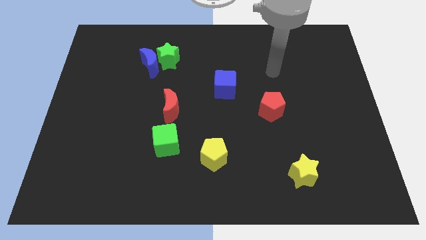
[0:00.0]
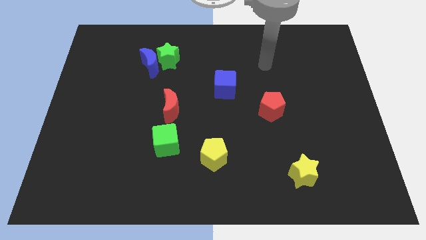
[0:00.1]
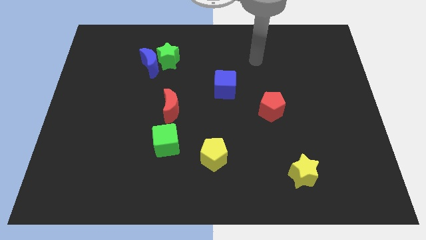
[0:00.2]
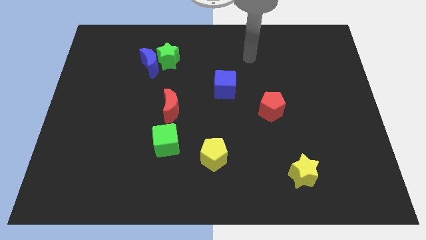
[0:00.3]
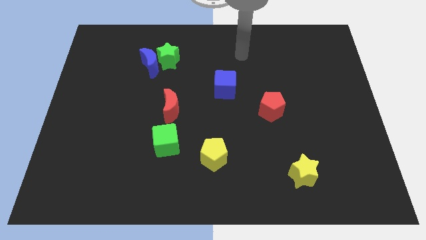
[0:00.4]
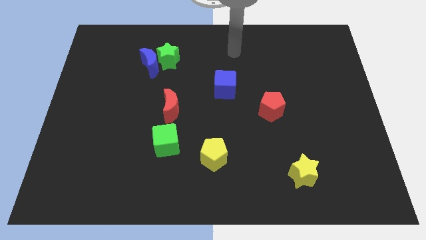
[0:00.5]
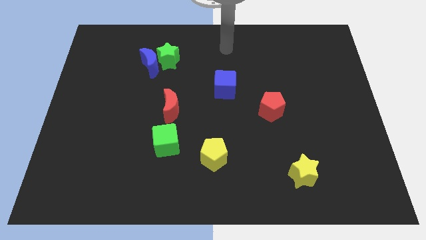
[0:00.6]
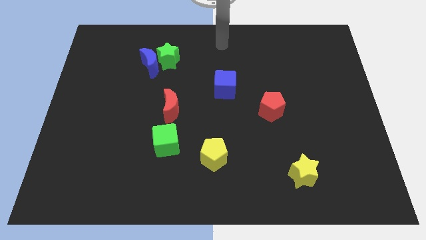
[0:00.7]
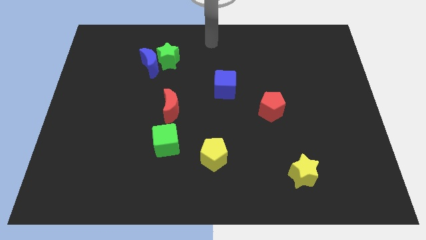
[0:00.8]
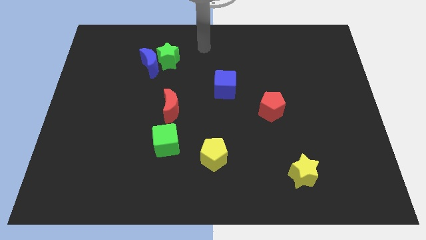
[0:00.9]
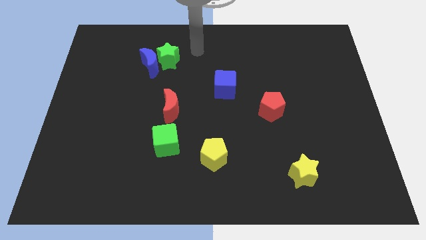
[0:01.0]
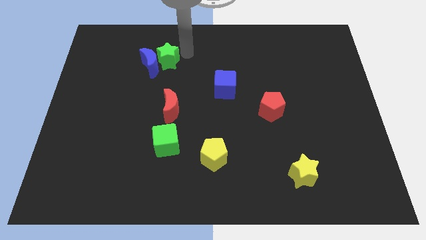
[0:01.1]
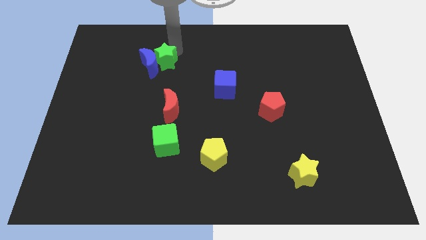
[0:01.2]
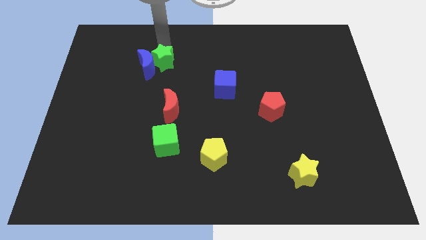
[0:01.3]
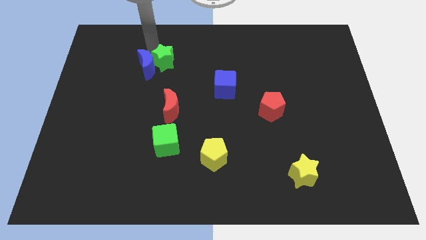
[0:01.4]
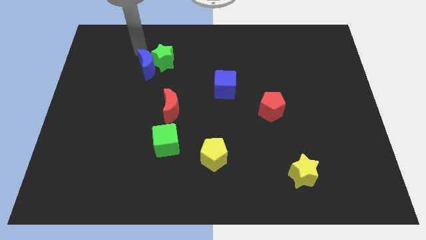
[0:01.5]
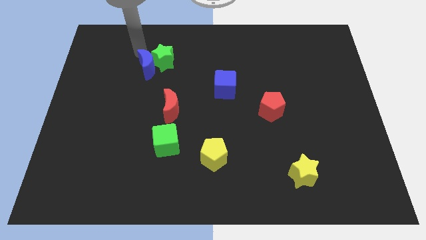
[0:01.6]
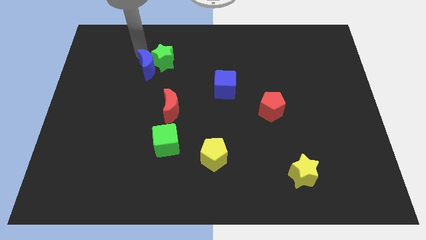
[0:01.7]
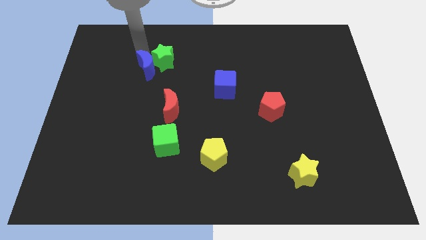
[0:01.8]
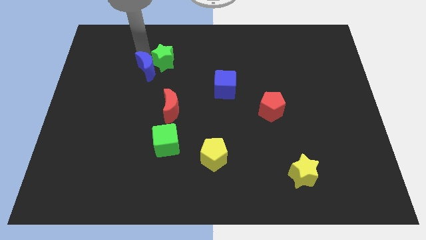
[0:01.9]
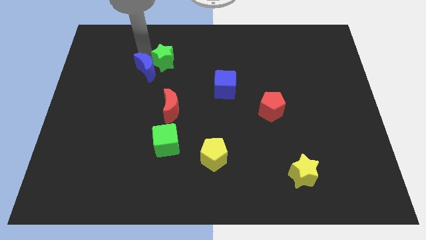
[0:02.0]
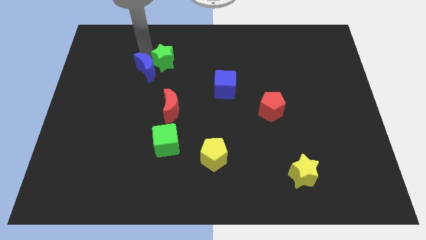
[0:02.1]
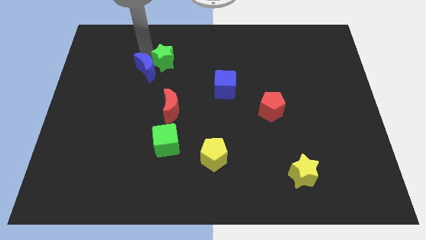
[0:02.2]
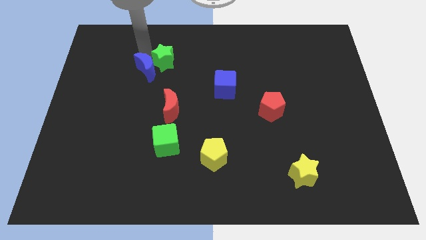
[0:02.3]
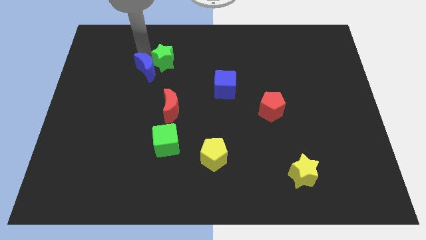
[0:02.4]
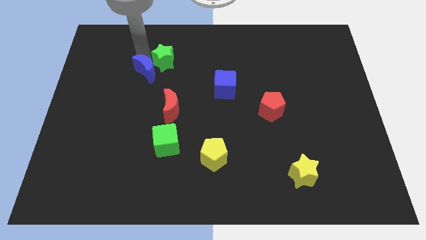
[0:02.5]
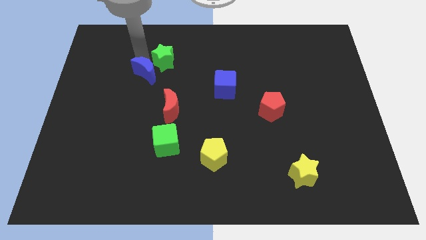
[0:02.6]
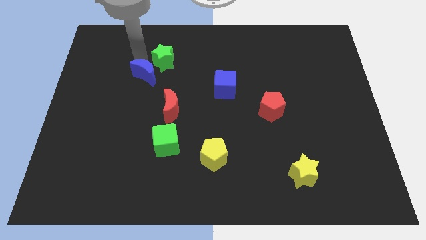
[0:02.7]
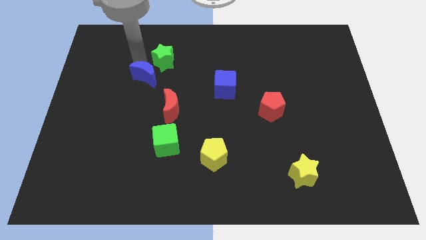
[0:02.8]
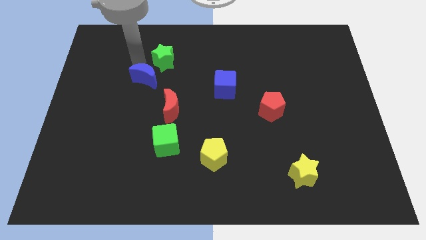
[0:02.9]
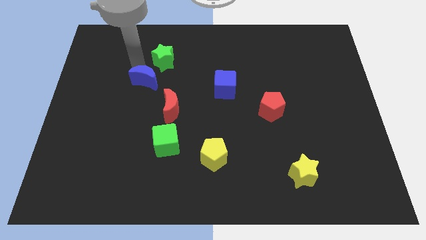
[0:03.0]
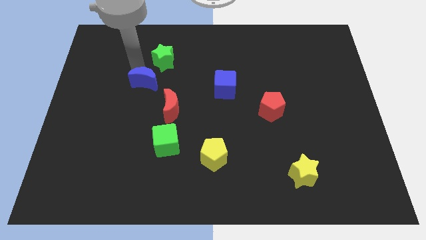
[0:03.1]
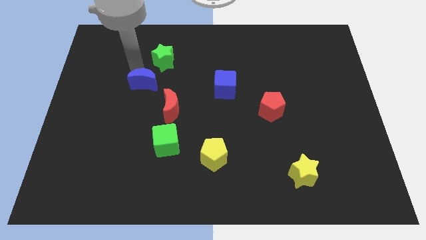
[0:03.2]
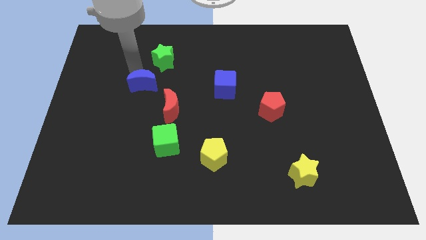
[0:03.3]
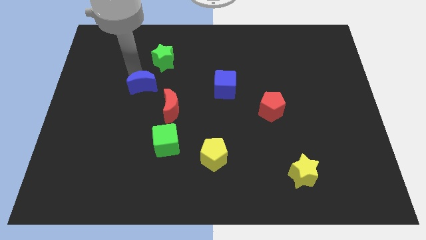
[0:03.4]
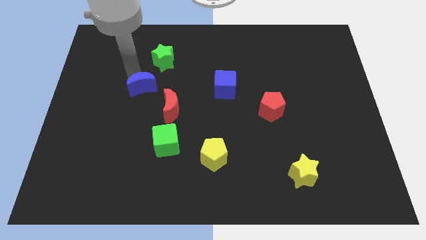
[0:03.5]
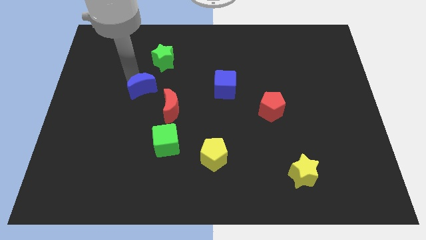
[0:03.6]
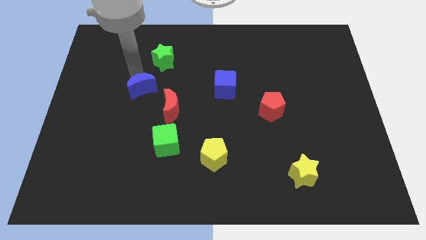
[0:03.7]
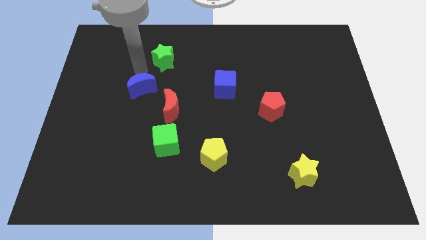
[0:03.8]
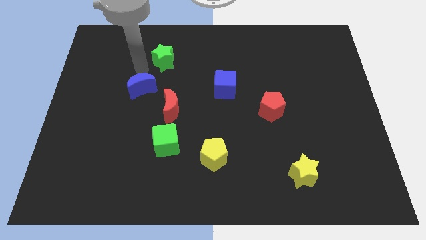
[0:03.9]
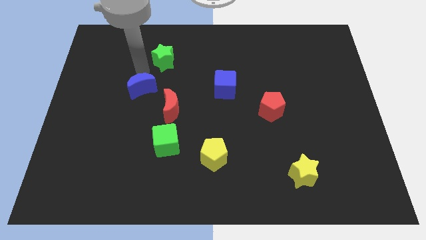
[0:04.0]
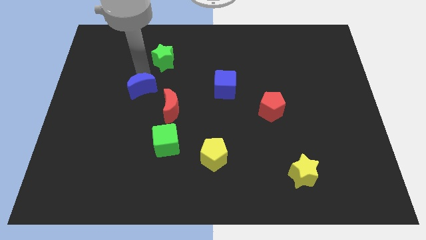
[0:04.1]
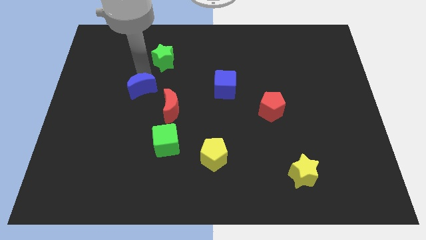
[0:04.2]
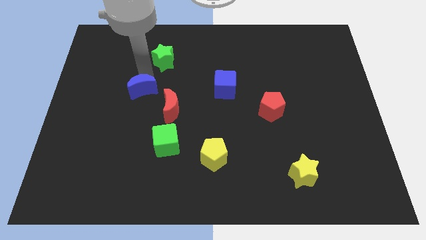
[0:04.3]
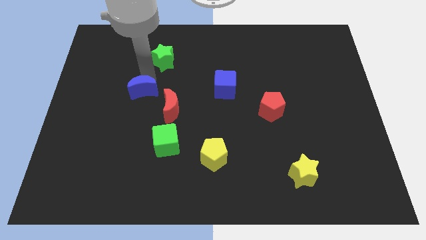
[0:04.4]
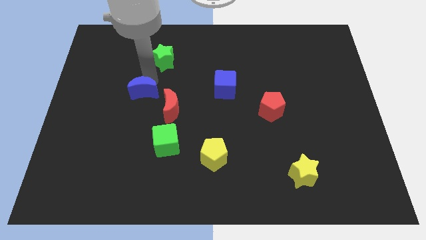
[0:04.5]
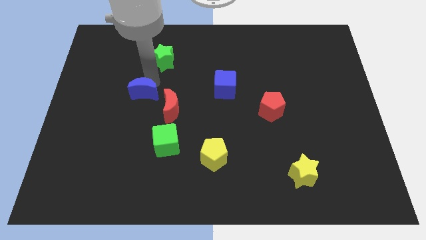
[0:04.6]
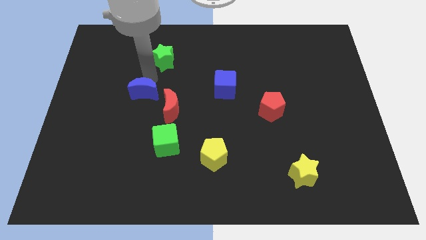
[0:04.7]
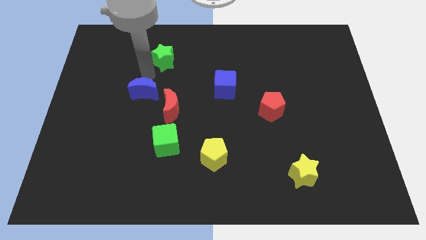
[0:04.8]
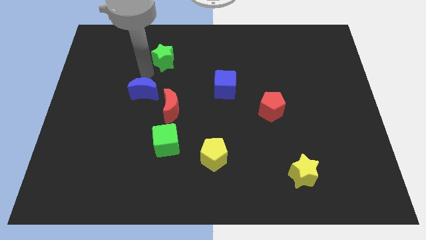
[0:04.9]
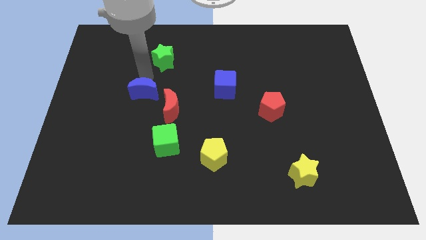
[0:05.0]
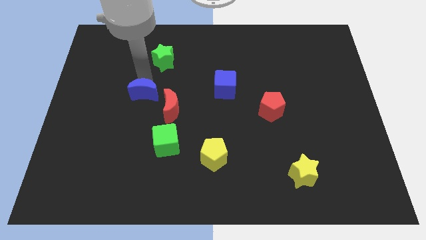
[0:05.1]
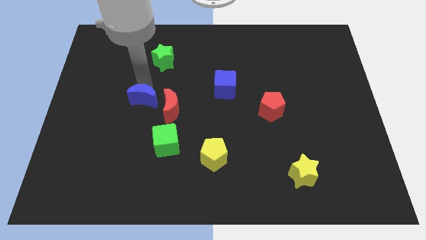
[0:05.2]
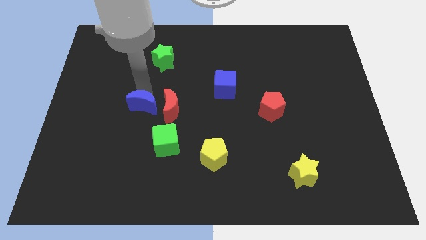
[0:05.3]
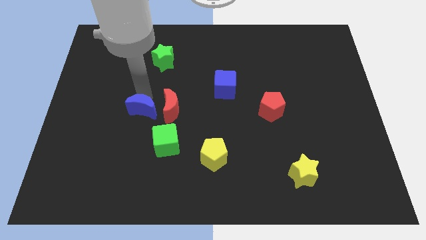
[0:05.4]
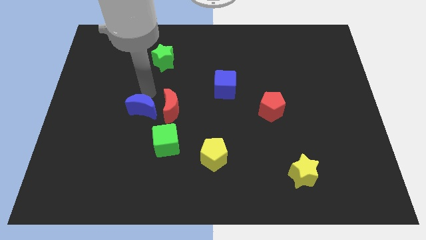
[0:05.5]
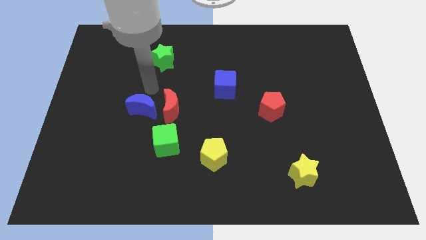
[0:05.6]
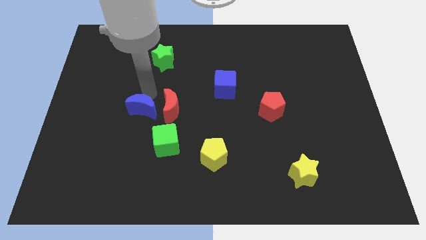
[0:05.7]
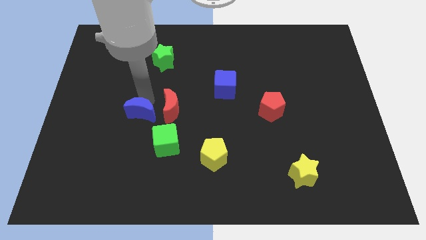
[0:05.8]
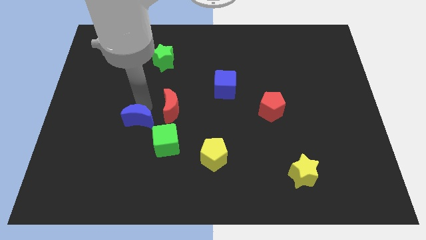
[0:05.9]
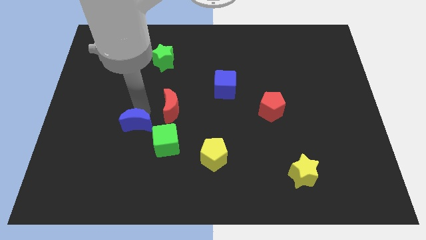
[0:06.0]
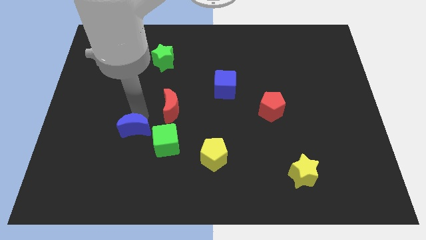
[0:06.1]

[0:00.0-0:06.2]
move the blue moon downwards

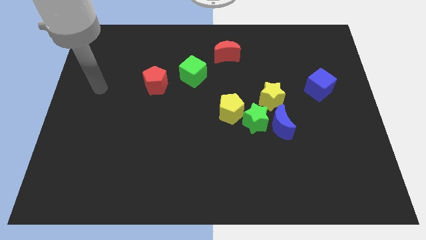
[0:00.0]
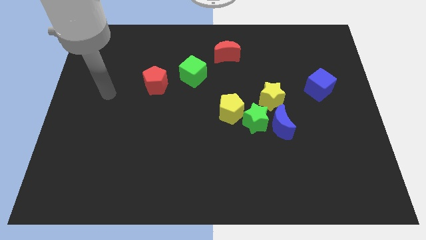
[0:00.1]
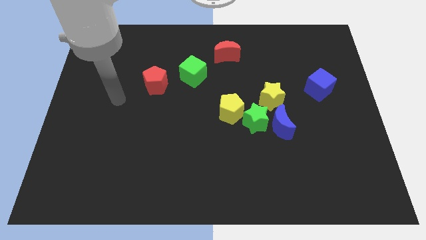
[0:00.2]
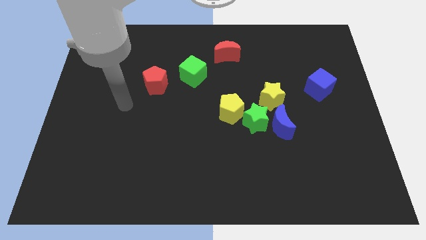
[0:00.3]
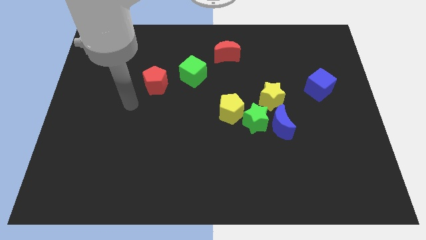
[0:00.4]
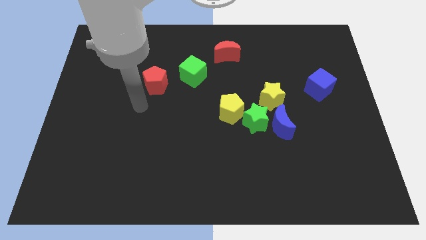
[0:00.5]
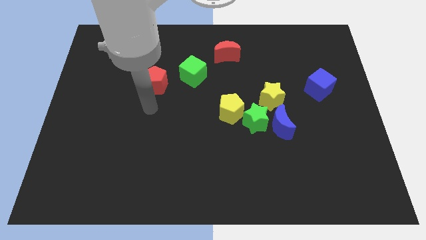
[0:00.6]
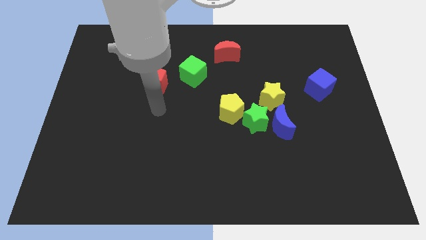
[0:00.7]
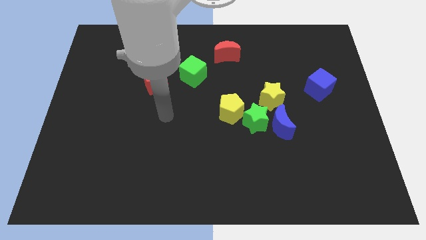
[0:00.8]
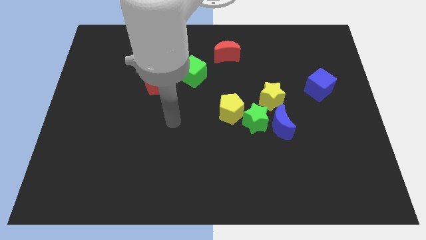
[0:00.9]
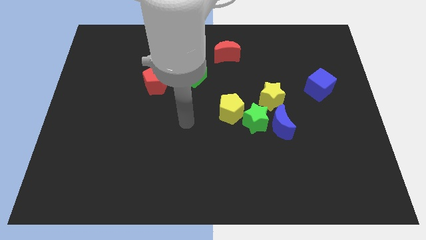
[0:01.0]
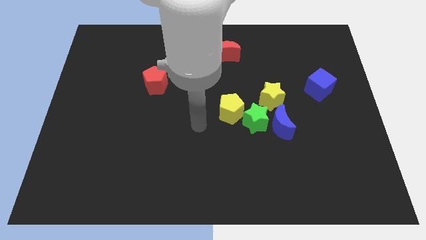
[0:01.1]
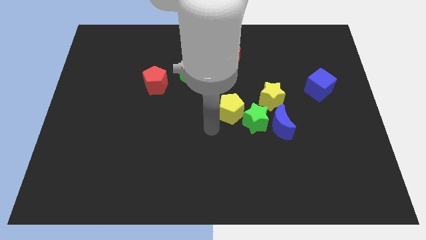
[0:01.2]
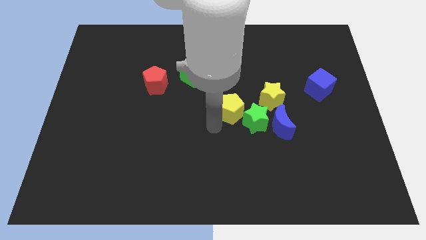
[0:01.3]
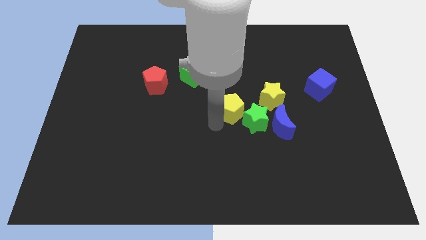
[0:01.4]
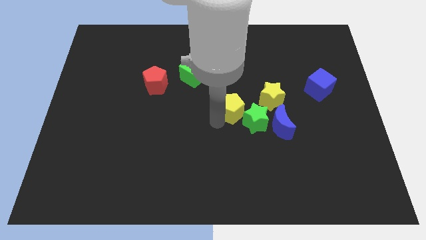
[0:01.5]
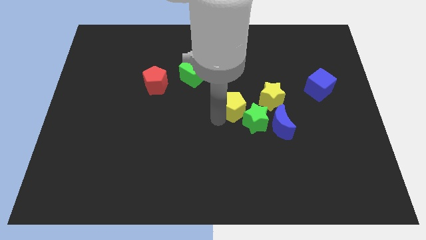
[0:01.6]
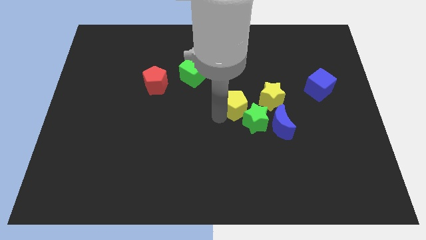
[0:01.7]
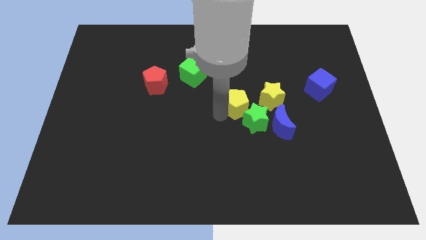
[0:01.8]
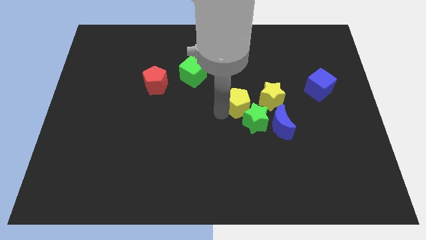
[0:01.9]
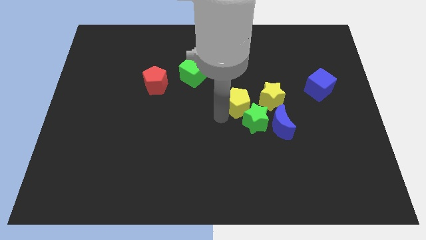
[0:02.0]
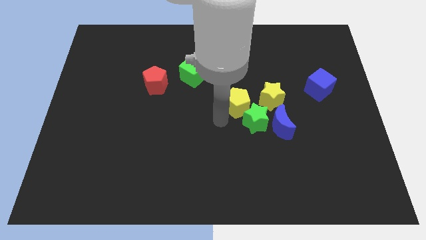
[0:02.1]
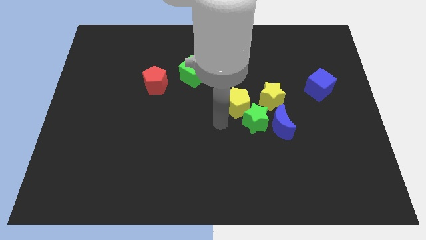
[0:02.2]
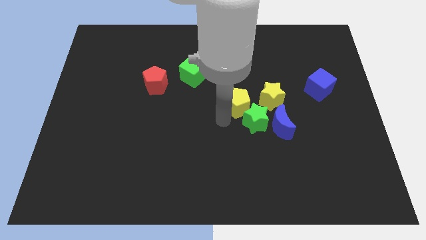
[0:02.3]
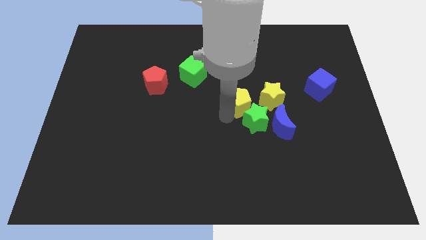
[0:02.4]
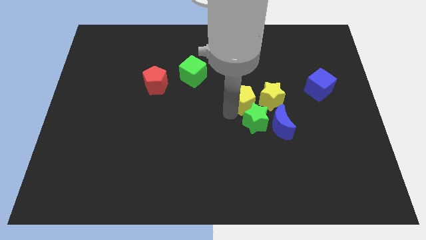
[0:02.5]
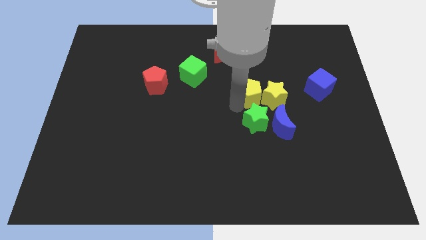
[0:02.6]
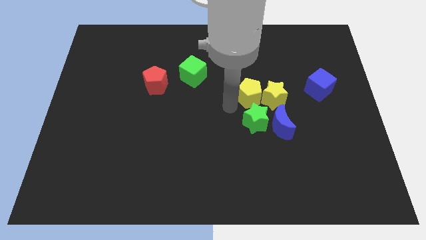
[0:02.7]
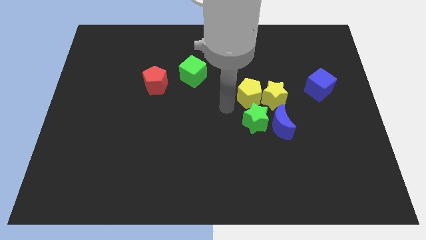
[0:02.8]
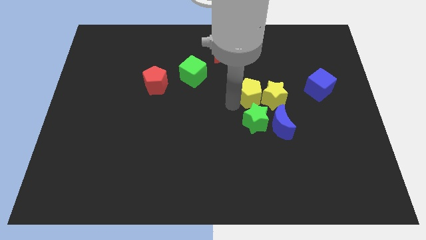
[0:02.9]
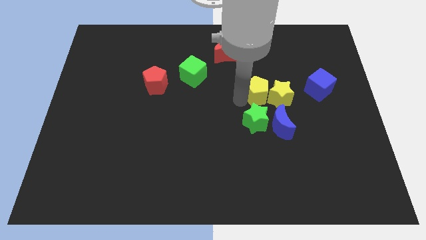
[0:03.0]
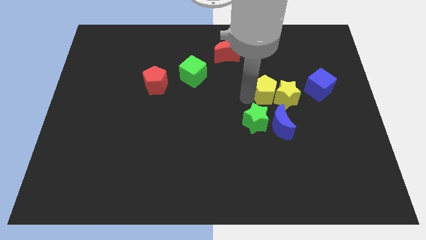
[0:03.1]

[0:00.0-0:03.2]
slightly move the yellow pentagon right
